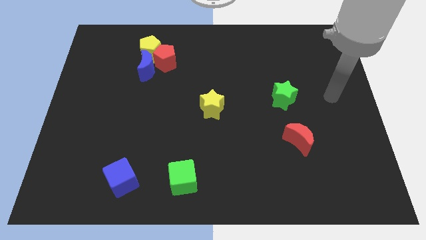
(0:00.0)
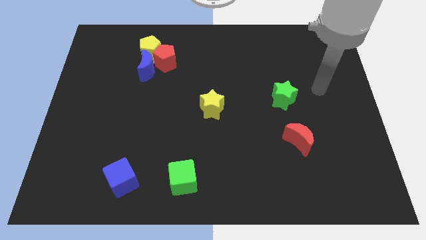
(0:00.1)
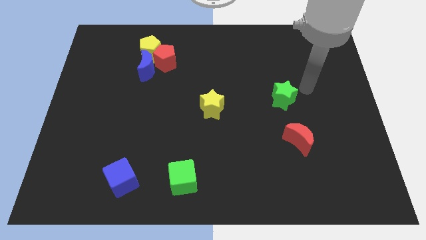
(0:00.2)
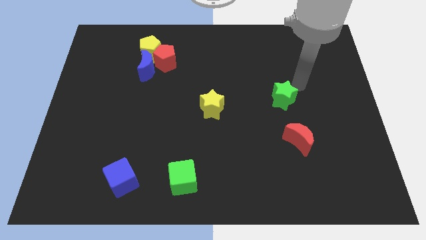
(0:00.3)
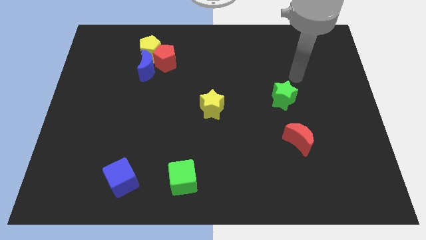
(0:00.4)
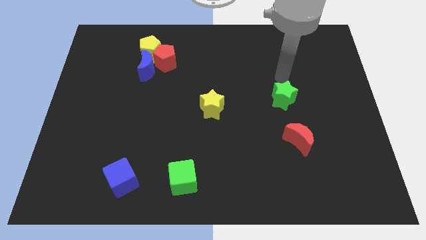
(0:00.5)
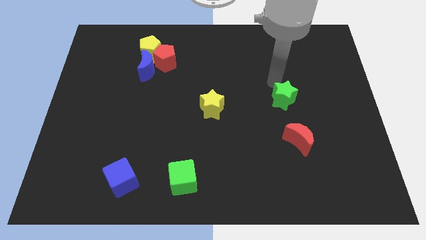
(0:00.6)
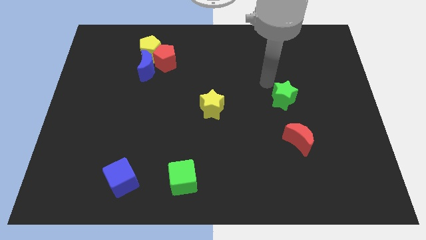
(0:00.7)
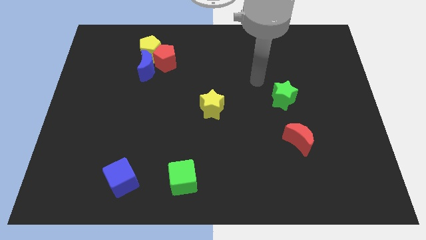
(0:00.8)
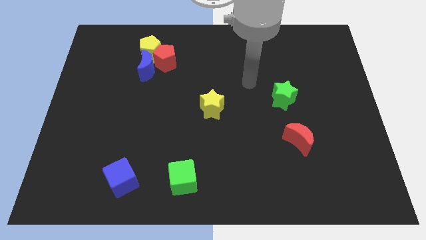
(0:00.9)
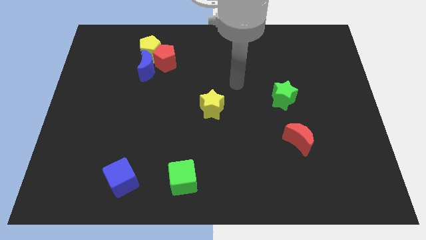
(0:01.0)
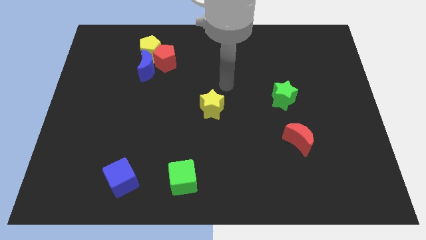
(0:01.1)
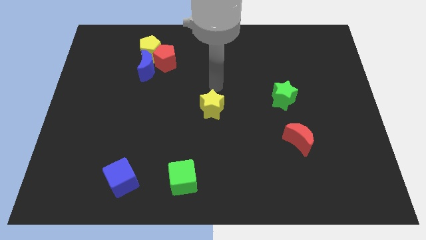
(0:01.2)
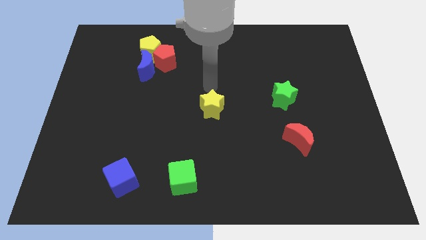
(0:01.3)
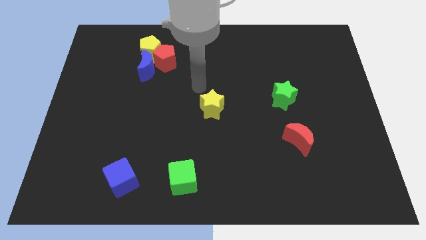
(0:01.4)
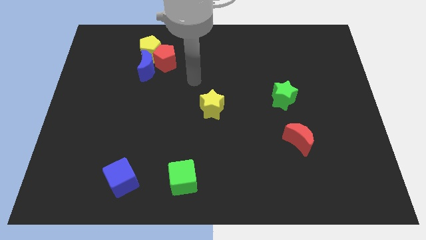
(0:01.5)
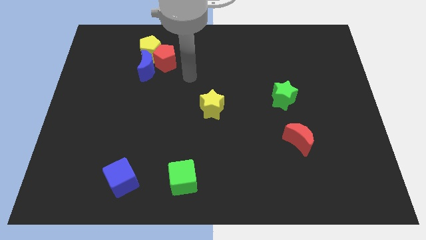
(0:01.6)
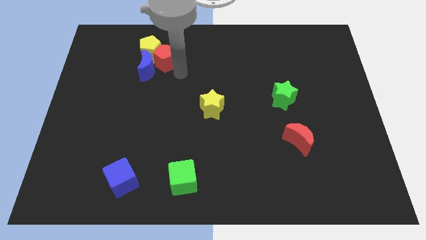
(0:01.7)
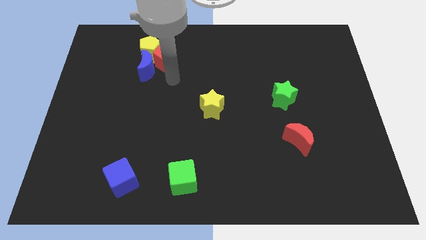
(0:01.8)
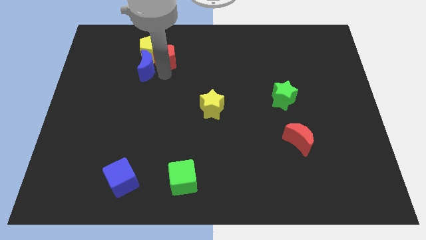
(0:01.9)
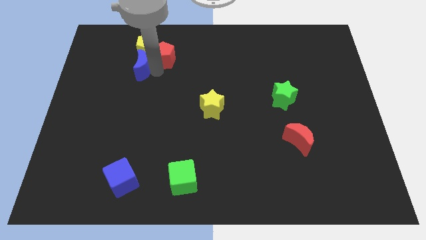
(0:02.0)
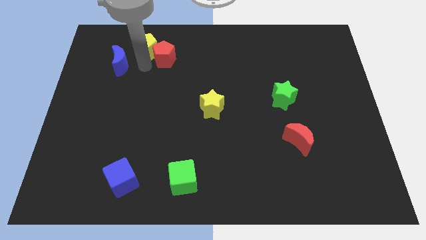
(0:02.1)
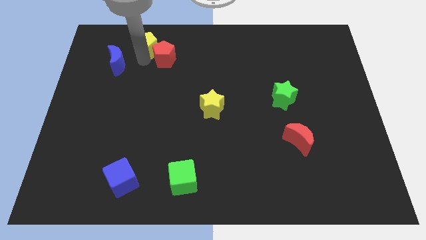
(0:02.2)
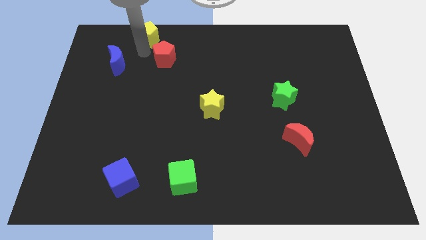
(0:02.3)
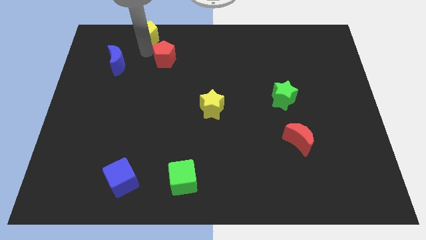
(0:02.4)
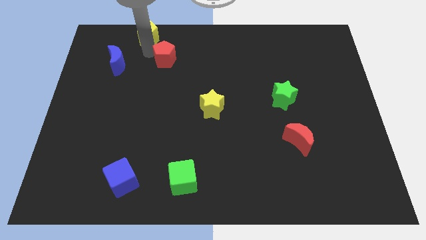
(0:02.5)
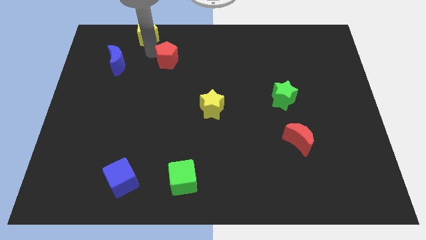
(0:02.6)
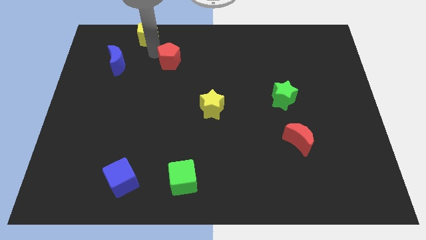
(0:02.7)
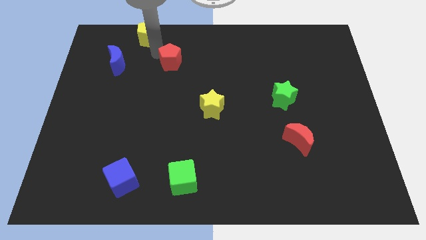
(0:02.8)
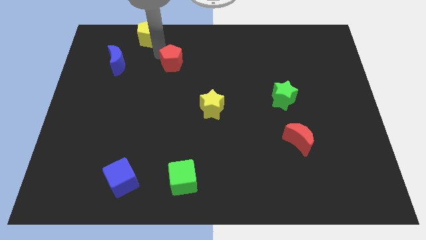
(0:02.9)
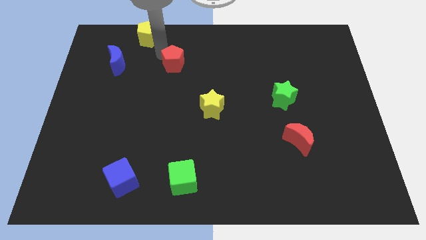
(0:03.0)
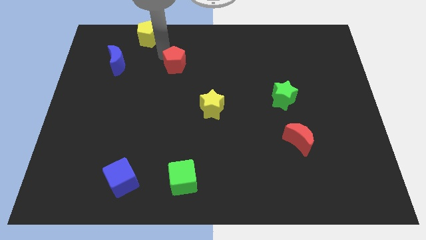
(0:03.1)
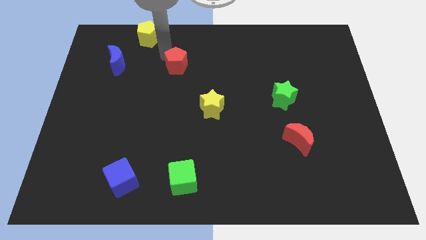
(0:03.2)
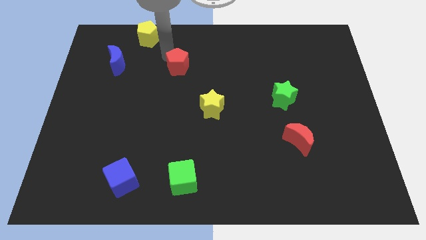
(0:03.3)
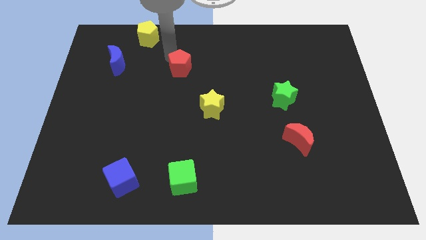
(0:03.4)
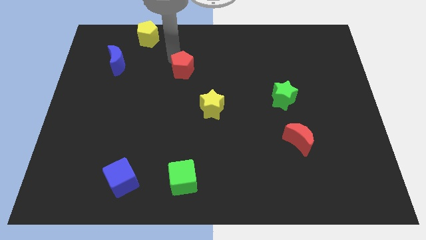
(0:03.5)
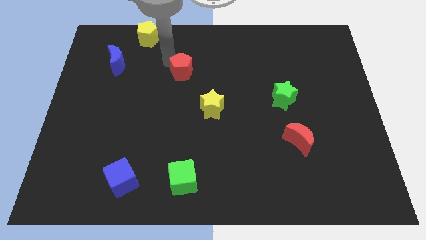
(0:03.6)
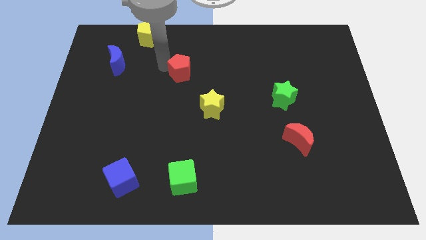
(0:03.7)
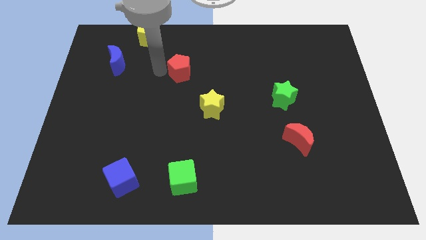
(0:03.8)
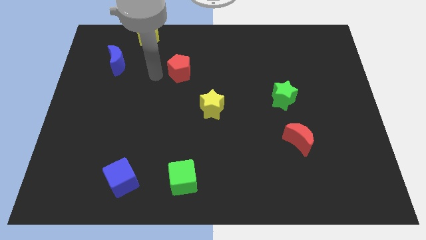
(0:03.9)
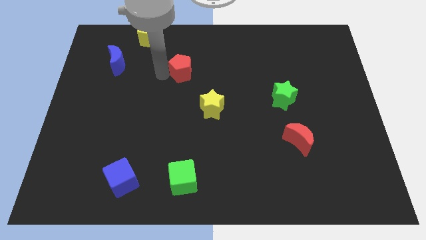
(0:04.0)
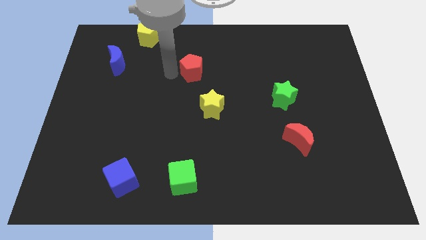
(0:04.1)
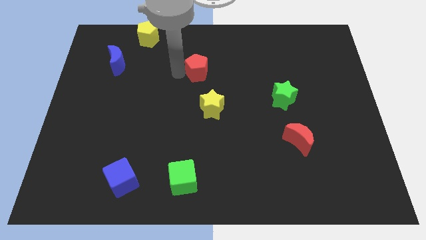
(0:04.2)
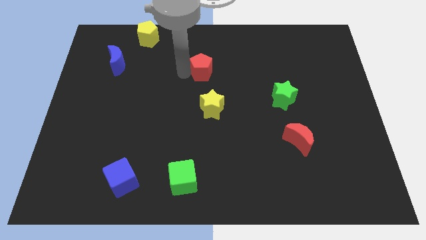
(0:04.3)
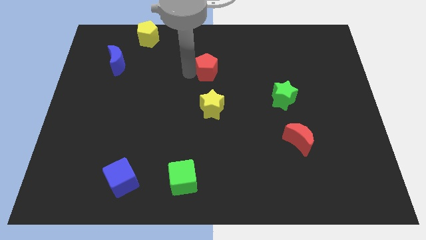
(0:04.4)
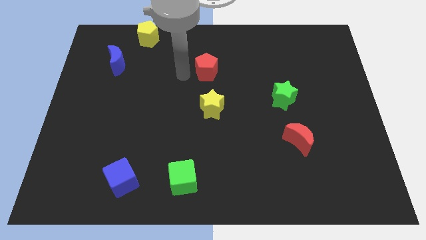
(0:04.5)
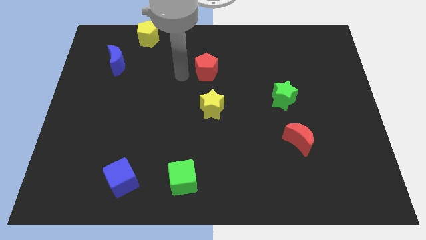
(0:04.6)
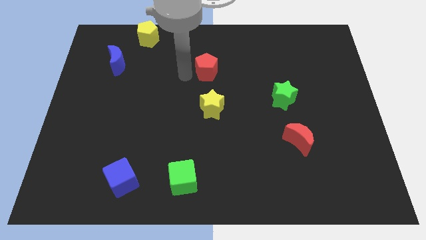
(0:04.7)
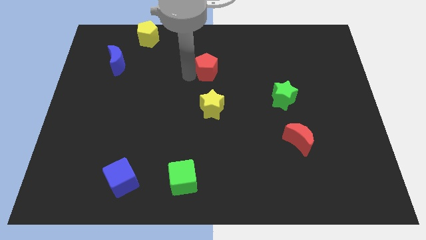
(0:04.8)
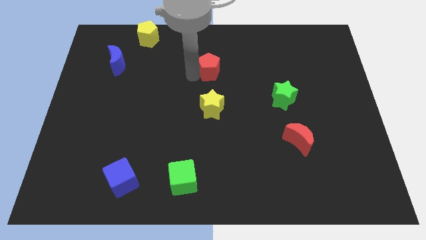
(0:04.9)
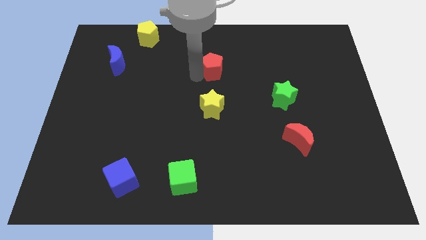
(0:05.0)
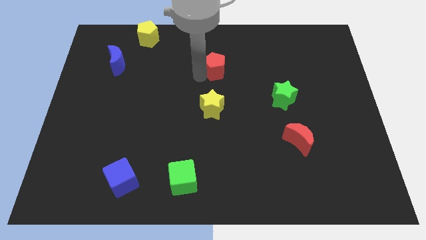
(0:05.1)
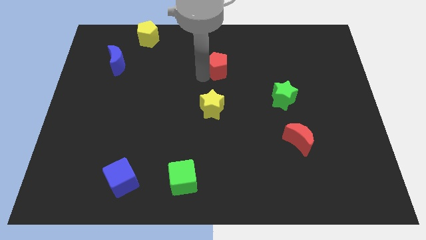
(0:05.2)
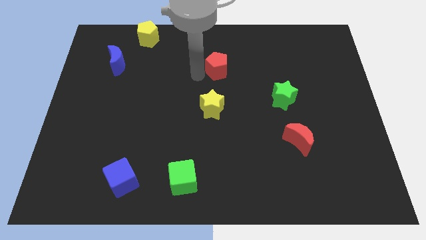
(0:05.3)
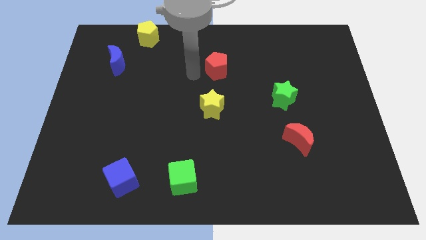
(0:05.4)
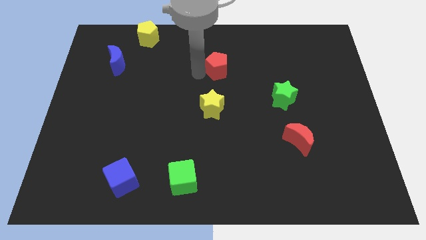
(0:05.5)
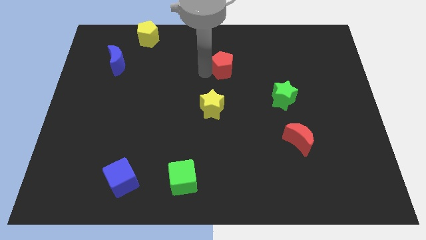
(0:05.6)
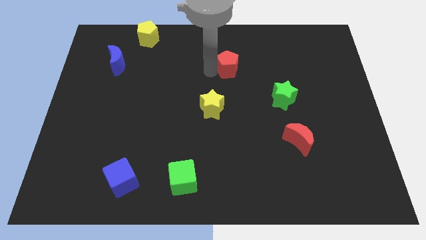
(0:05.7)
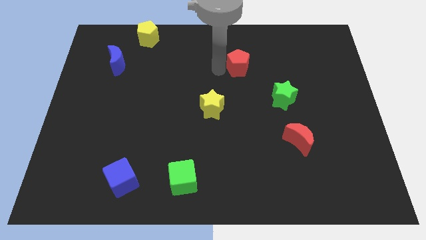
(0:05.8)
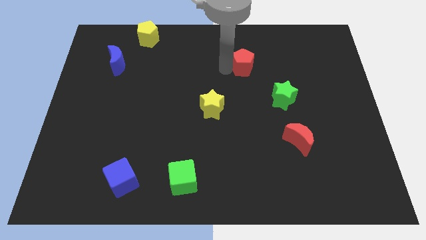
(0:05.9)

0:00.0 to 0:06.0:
push the red pentagon to the right

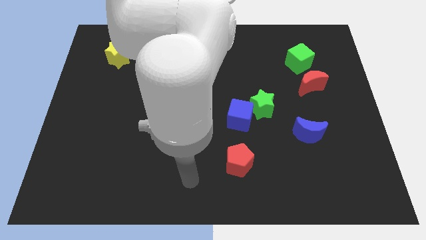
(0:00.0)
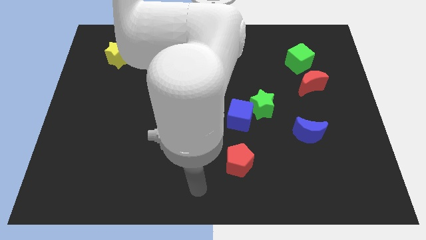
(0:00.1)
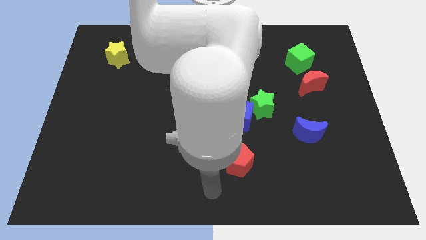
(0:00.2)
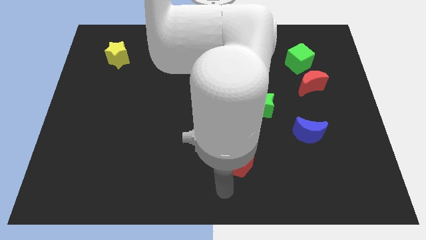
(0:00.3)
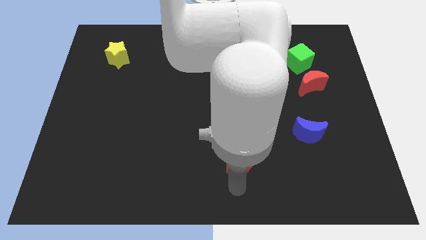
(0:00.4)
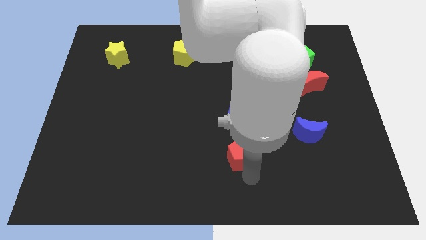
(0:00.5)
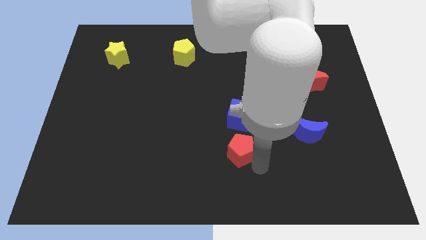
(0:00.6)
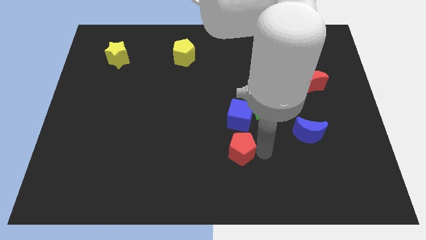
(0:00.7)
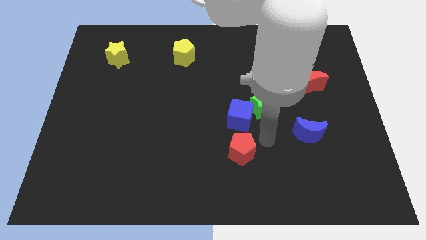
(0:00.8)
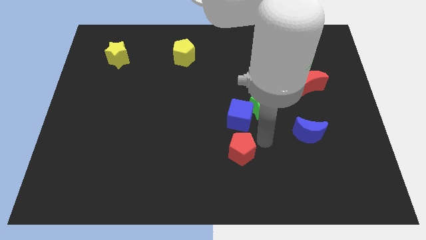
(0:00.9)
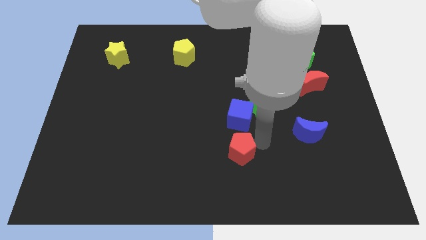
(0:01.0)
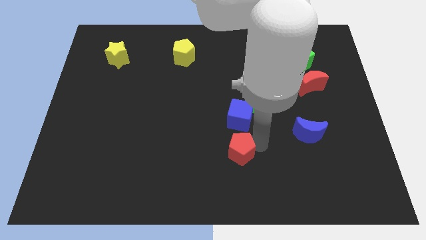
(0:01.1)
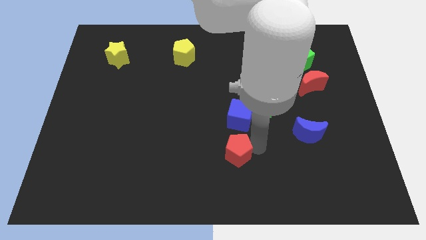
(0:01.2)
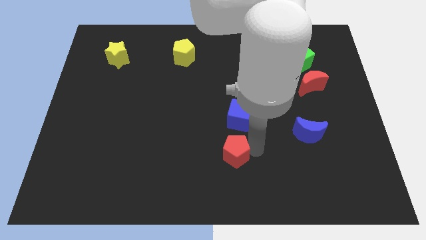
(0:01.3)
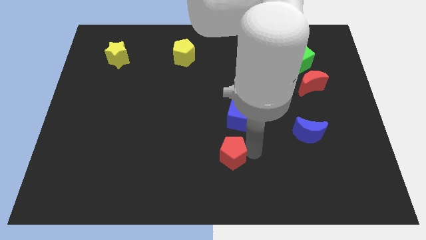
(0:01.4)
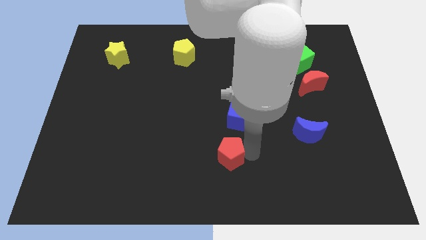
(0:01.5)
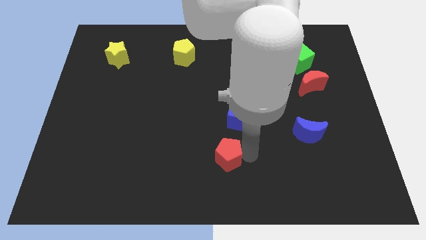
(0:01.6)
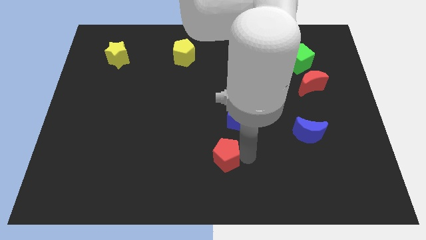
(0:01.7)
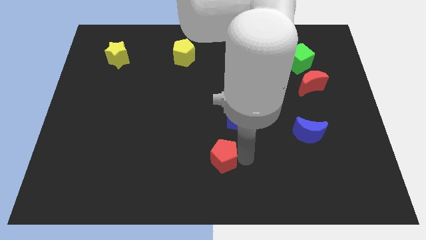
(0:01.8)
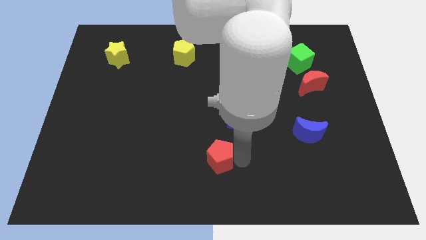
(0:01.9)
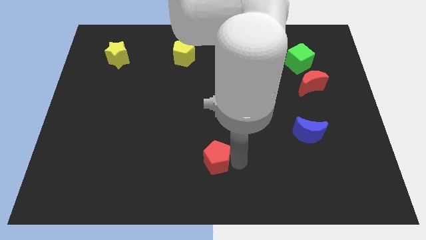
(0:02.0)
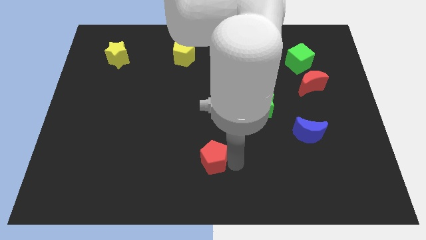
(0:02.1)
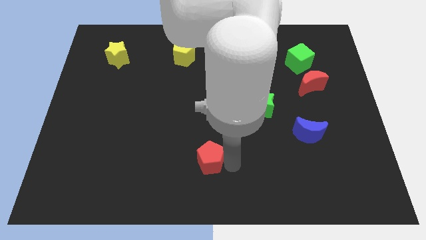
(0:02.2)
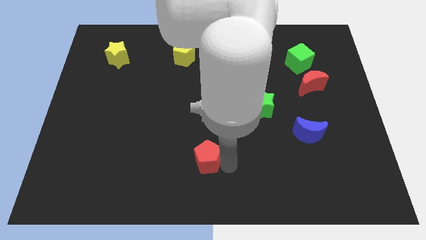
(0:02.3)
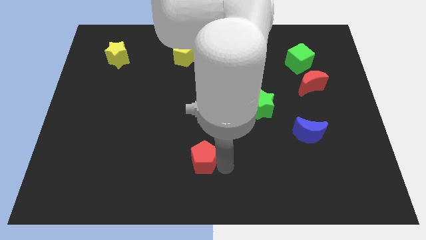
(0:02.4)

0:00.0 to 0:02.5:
push the red pentagon a little left
